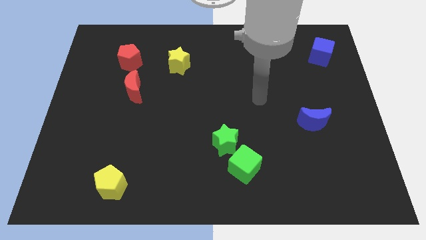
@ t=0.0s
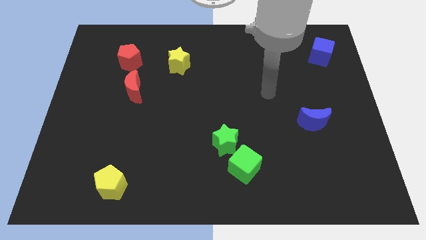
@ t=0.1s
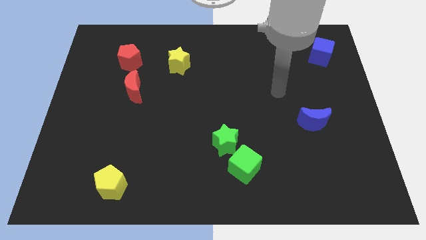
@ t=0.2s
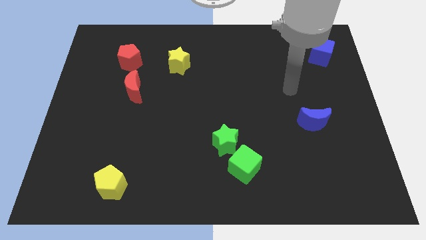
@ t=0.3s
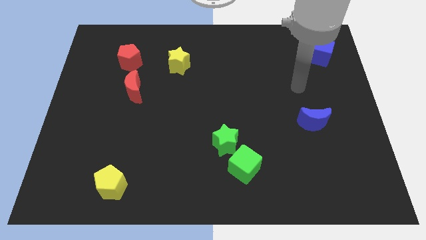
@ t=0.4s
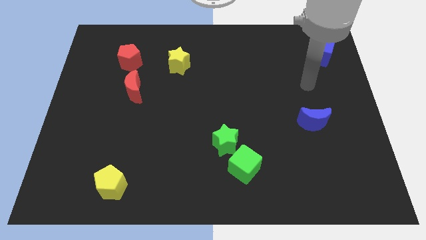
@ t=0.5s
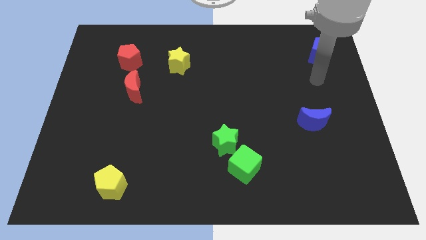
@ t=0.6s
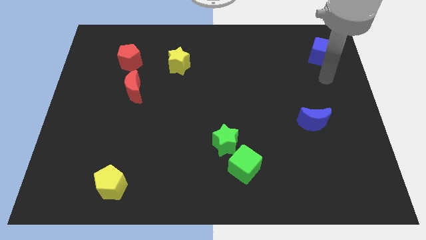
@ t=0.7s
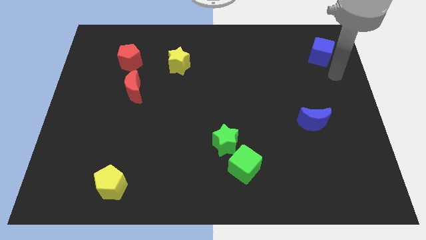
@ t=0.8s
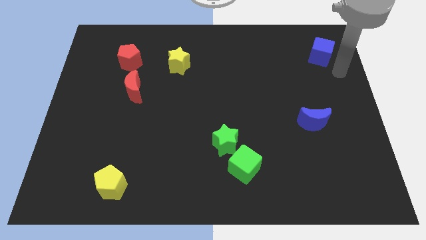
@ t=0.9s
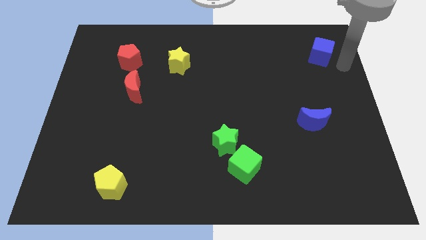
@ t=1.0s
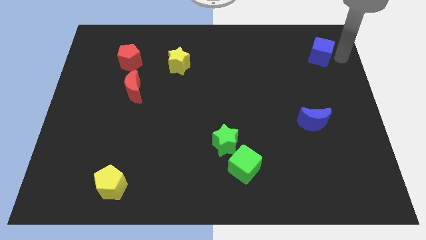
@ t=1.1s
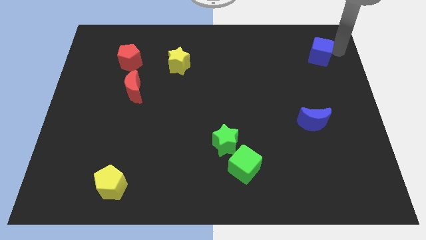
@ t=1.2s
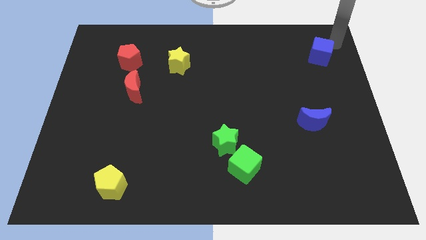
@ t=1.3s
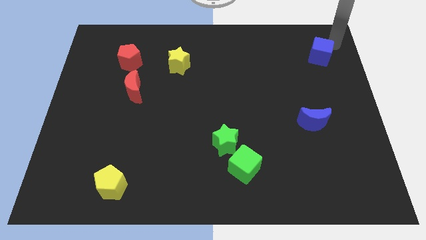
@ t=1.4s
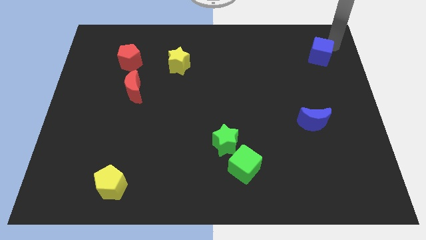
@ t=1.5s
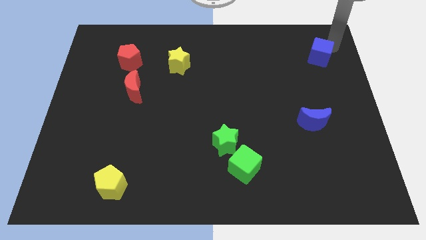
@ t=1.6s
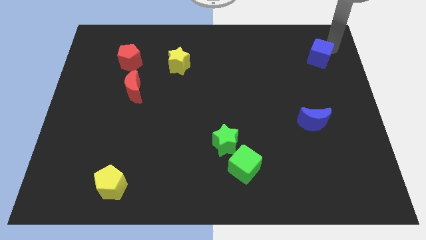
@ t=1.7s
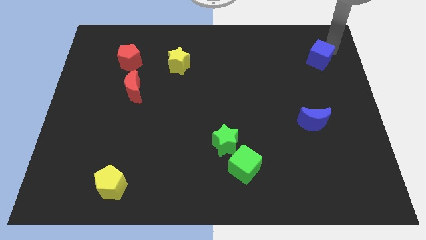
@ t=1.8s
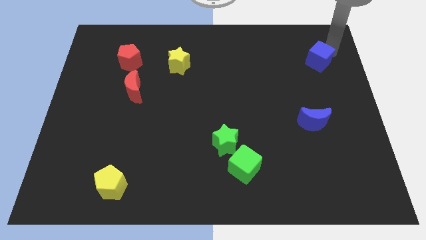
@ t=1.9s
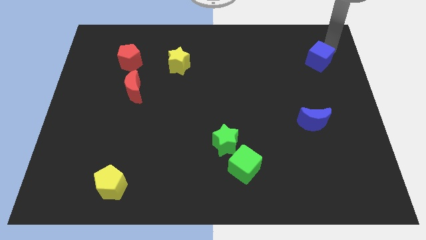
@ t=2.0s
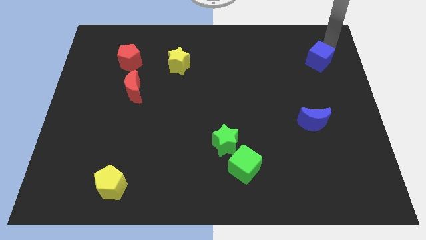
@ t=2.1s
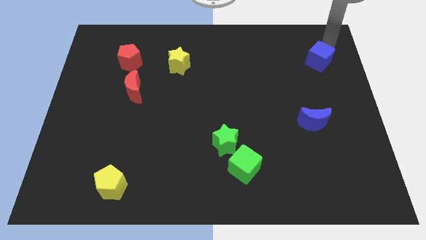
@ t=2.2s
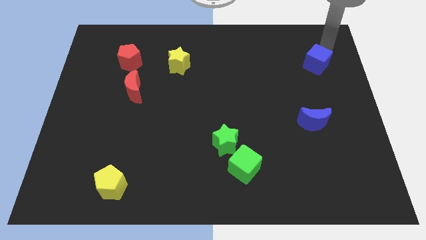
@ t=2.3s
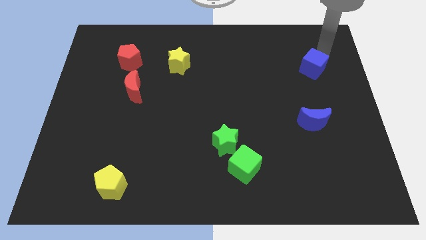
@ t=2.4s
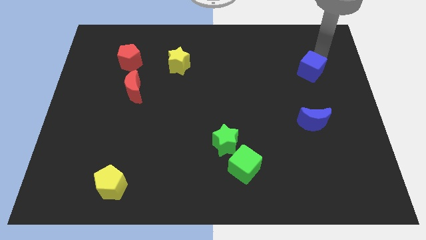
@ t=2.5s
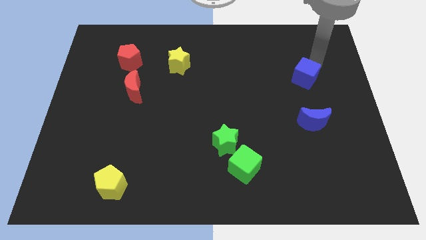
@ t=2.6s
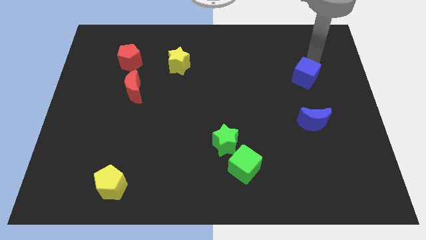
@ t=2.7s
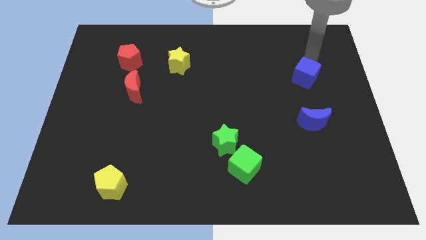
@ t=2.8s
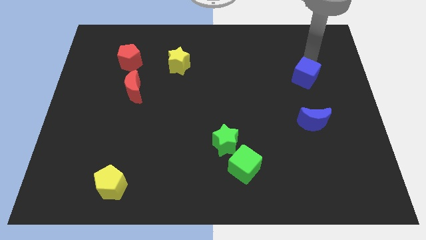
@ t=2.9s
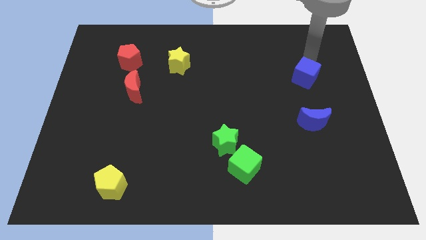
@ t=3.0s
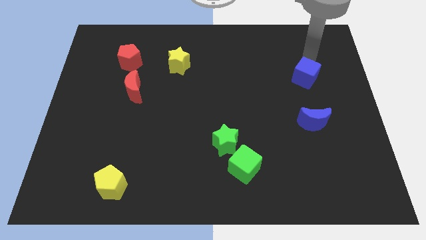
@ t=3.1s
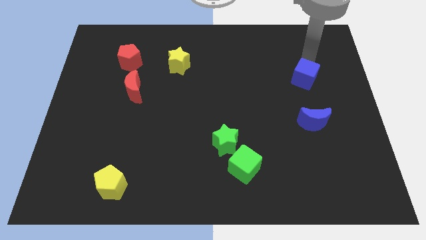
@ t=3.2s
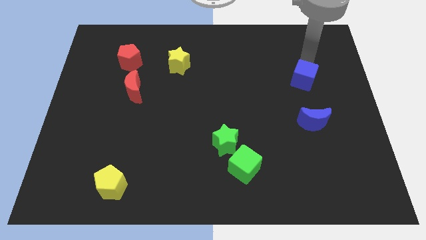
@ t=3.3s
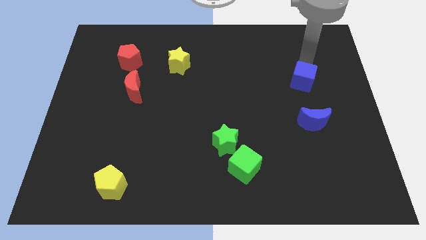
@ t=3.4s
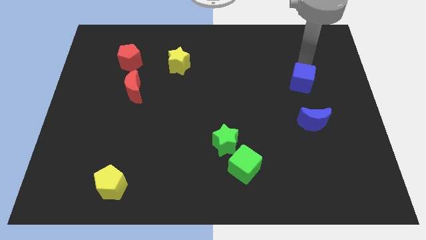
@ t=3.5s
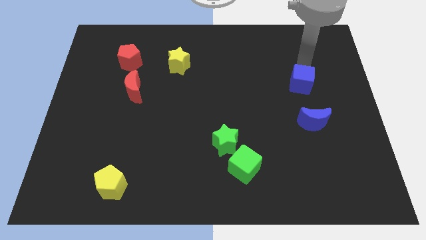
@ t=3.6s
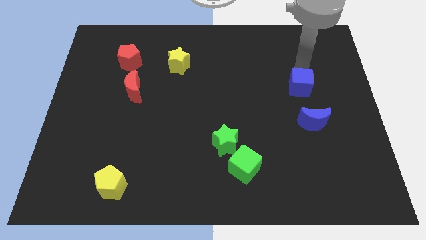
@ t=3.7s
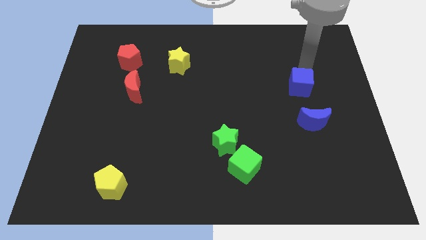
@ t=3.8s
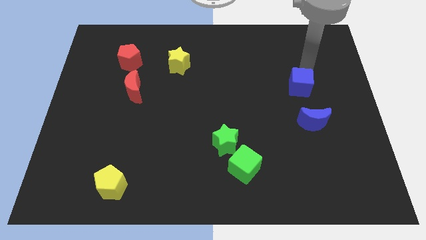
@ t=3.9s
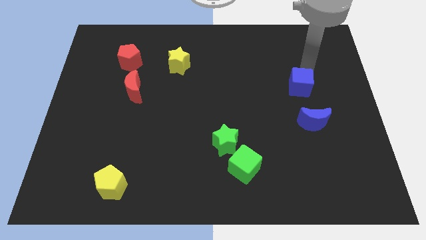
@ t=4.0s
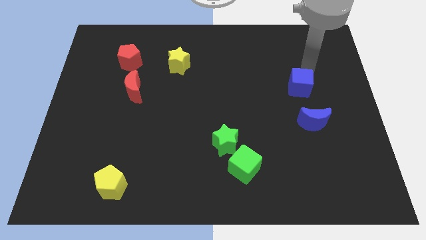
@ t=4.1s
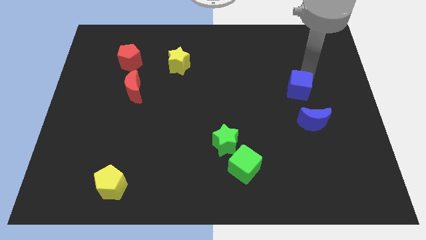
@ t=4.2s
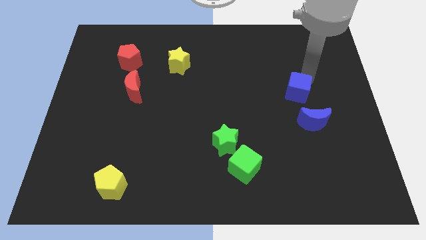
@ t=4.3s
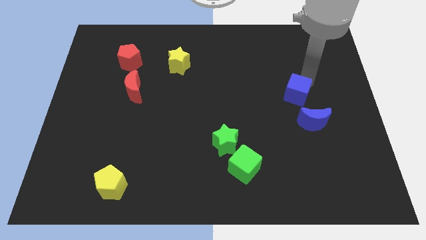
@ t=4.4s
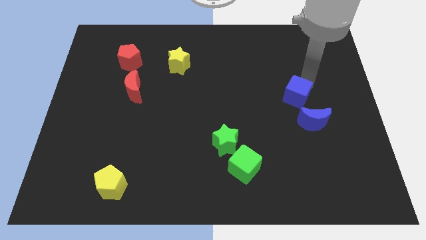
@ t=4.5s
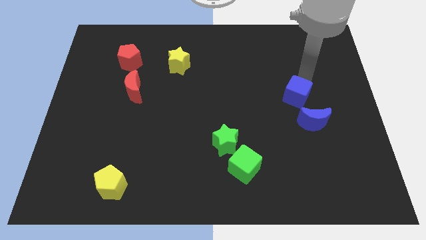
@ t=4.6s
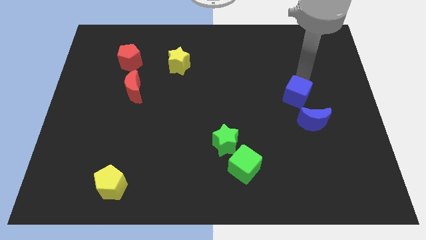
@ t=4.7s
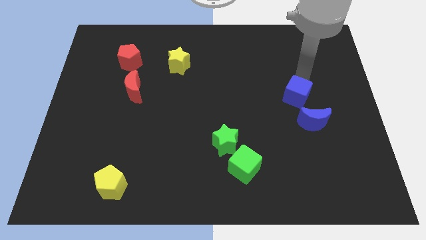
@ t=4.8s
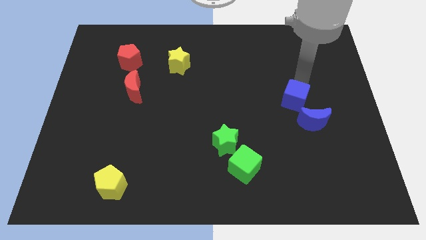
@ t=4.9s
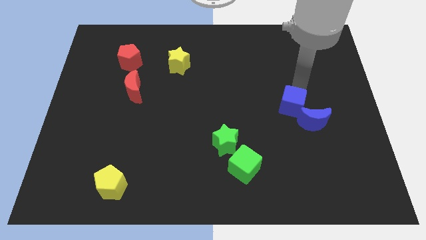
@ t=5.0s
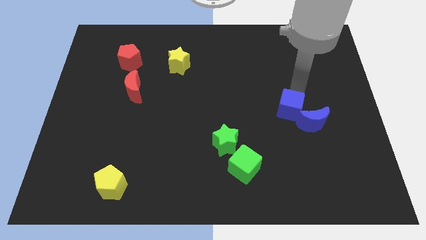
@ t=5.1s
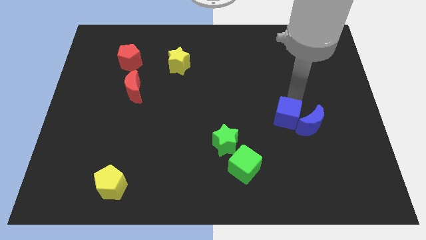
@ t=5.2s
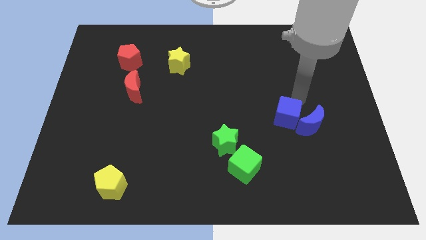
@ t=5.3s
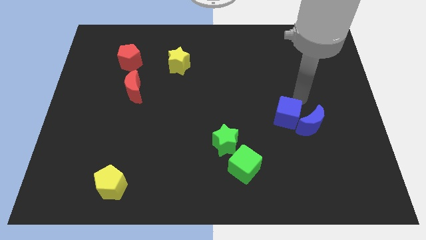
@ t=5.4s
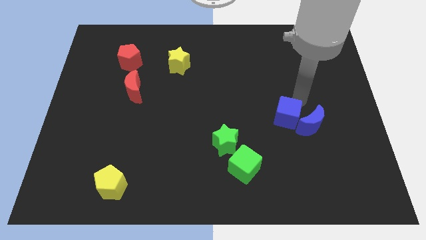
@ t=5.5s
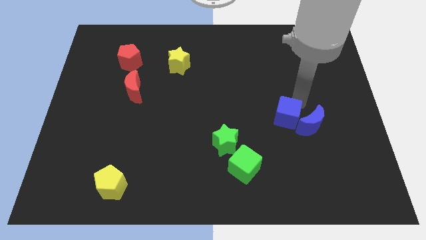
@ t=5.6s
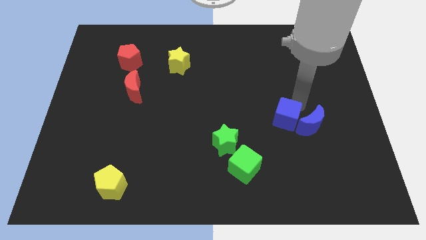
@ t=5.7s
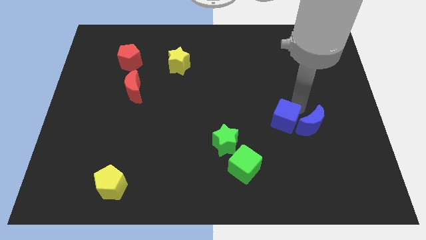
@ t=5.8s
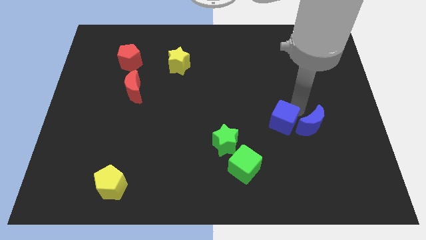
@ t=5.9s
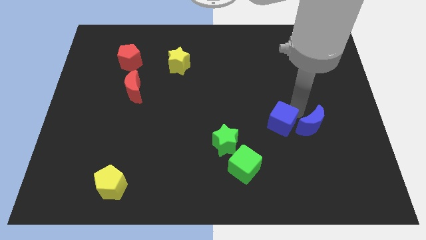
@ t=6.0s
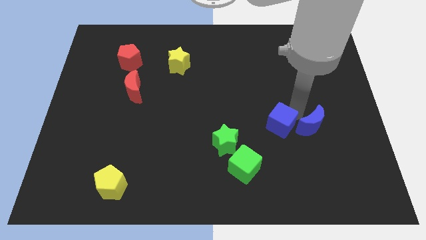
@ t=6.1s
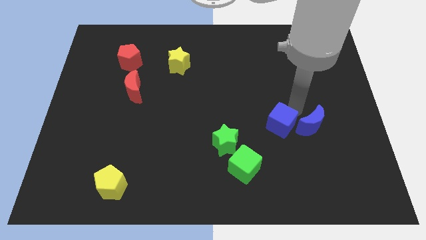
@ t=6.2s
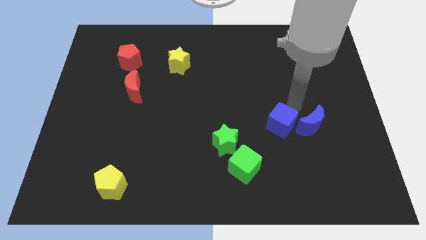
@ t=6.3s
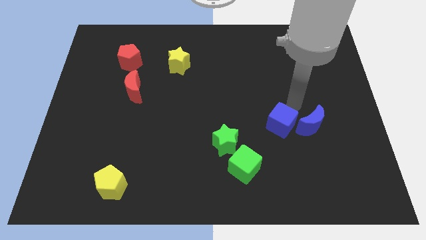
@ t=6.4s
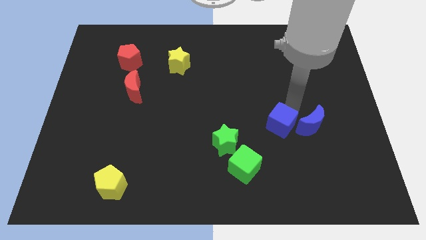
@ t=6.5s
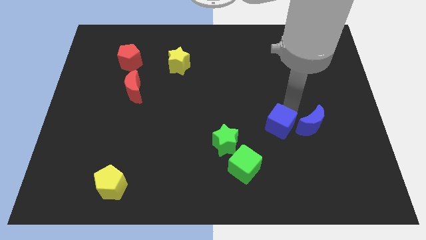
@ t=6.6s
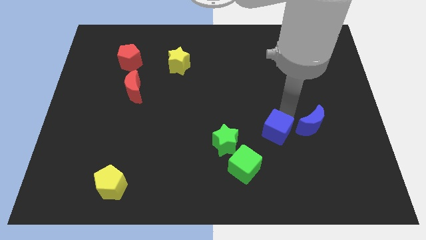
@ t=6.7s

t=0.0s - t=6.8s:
move the blue cube to the top right of the green cube
